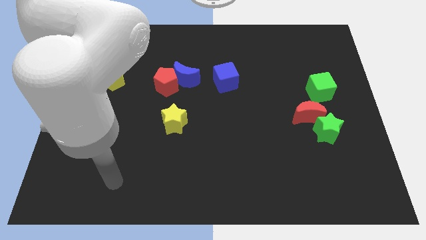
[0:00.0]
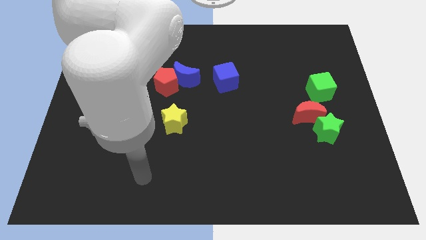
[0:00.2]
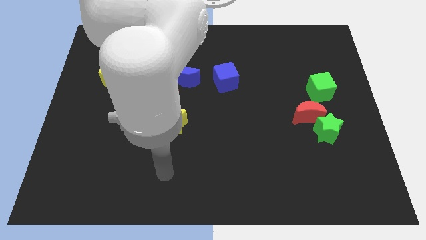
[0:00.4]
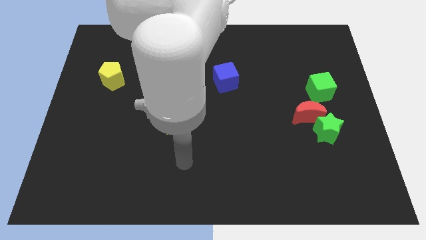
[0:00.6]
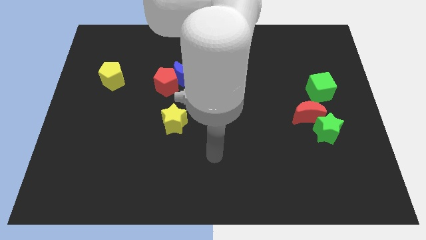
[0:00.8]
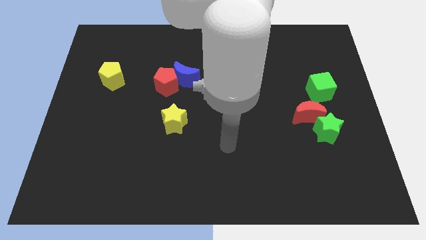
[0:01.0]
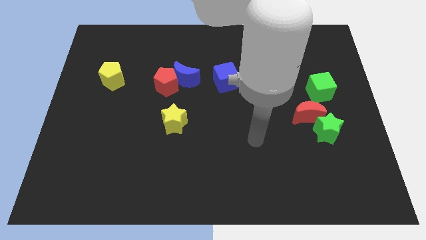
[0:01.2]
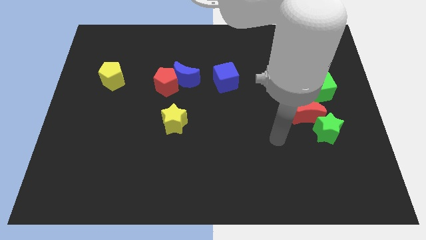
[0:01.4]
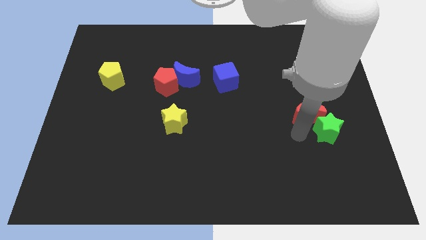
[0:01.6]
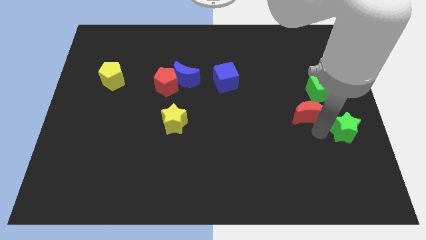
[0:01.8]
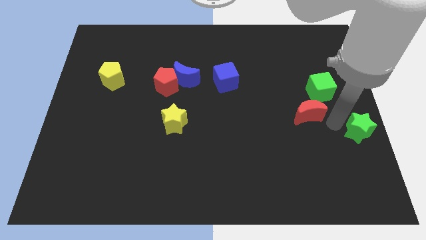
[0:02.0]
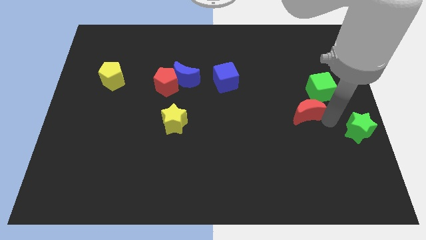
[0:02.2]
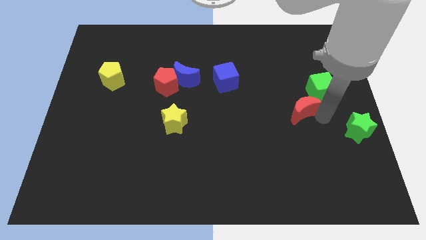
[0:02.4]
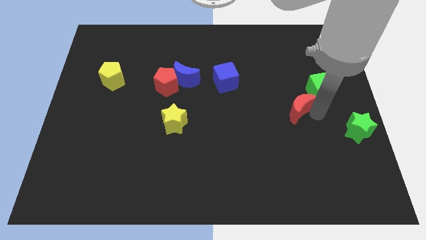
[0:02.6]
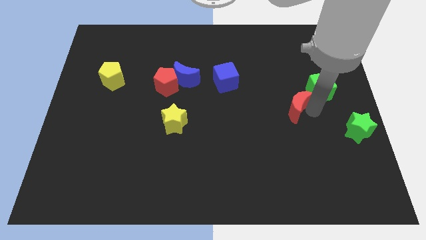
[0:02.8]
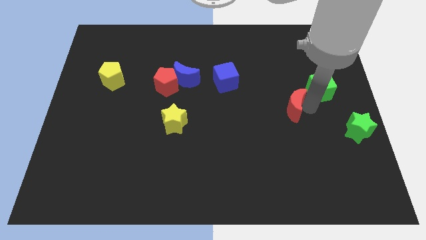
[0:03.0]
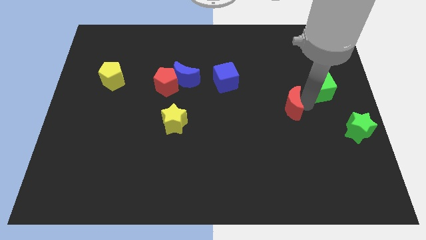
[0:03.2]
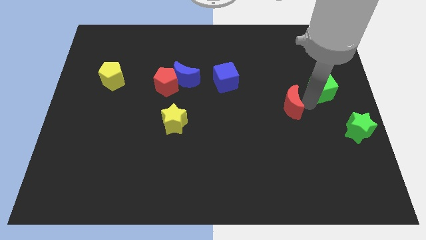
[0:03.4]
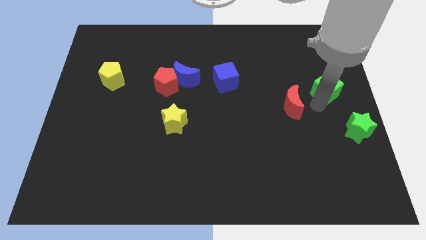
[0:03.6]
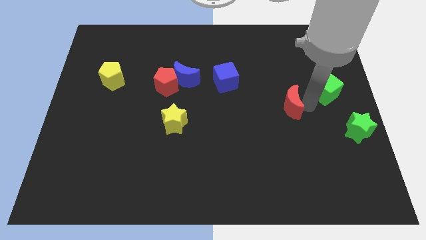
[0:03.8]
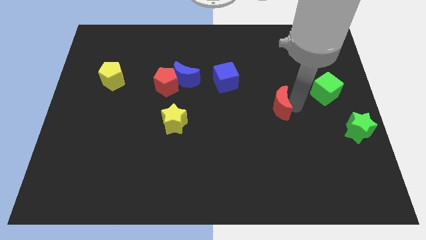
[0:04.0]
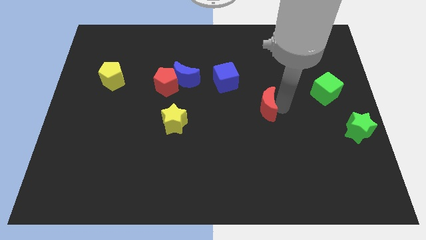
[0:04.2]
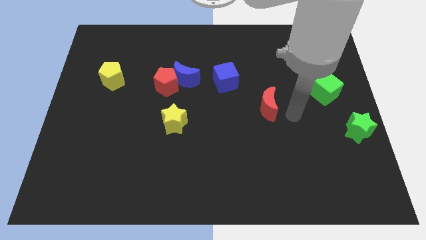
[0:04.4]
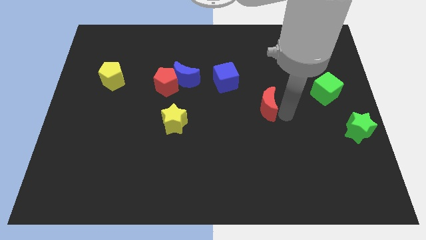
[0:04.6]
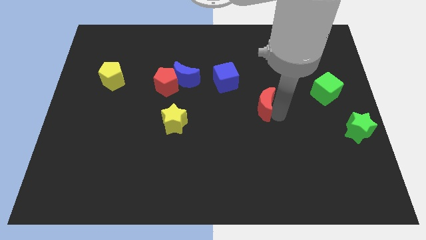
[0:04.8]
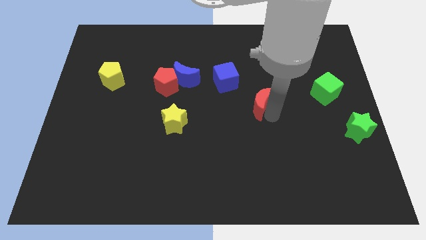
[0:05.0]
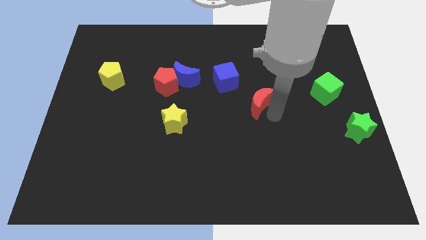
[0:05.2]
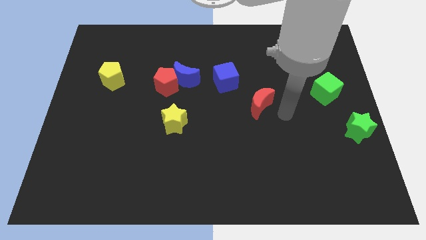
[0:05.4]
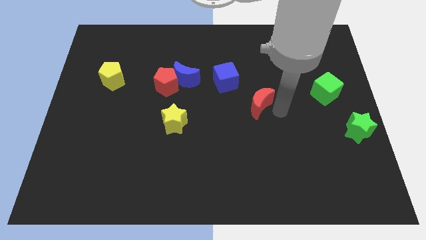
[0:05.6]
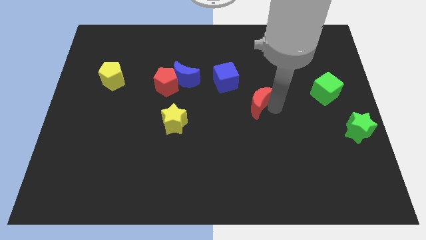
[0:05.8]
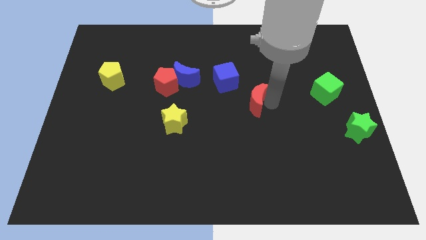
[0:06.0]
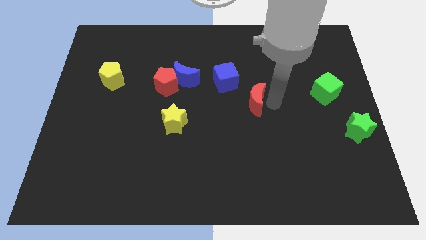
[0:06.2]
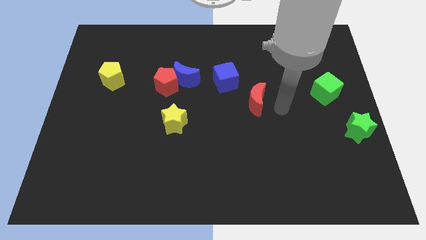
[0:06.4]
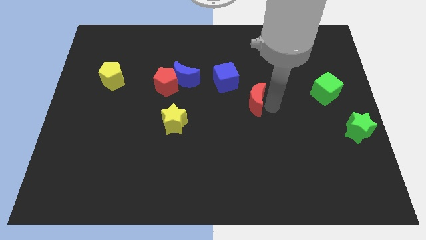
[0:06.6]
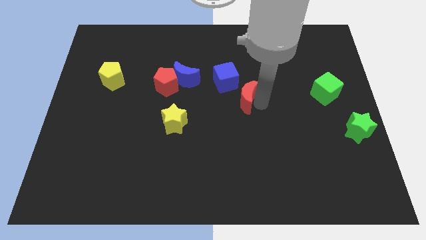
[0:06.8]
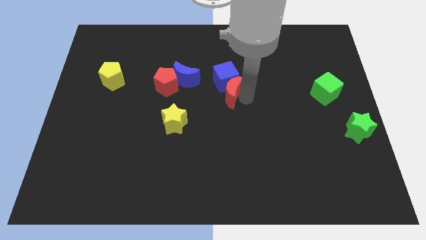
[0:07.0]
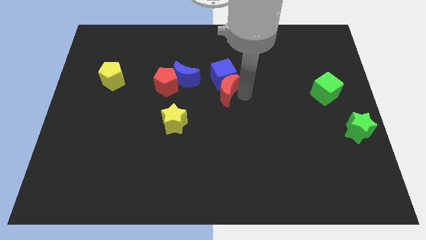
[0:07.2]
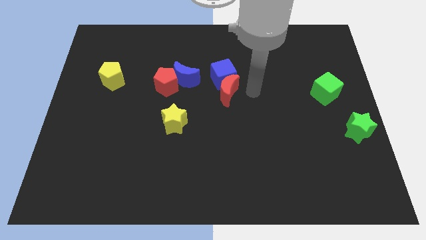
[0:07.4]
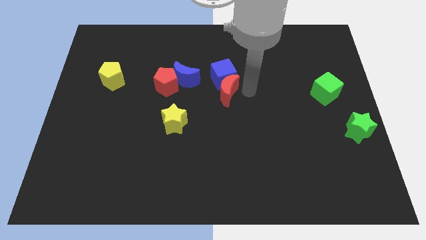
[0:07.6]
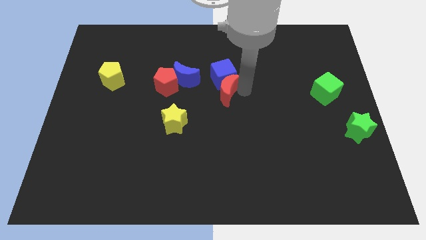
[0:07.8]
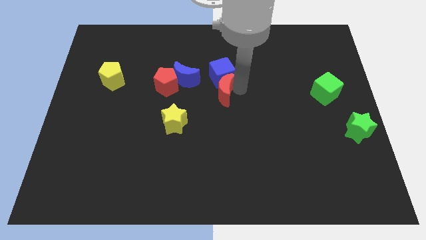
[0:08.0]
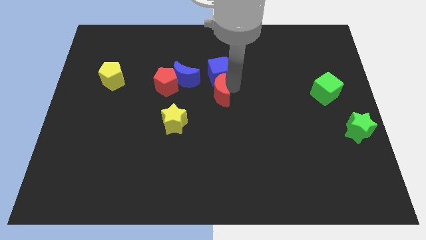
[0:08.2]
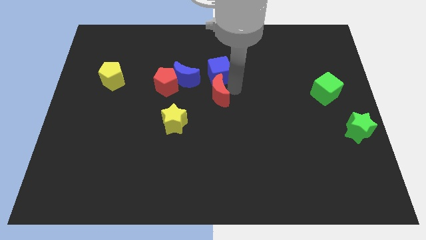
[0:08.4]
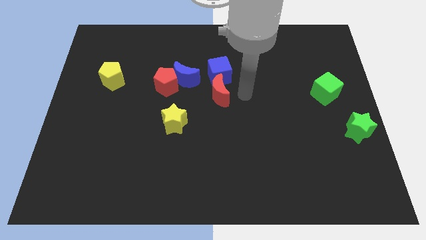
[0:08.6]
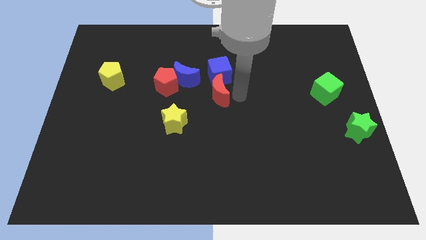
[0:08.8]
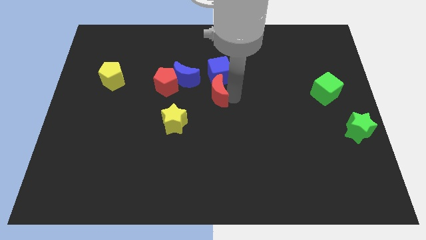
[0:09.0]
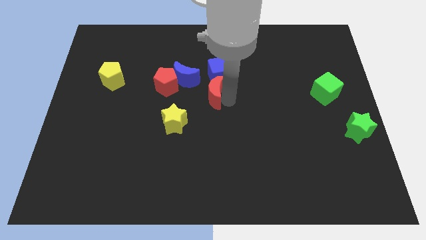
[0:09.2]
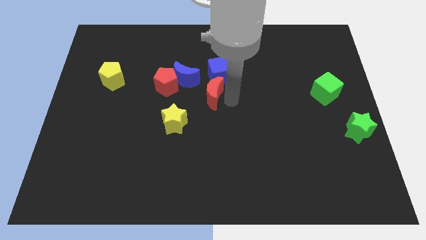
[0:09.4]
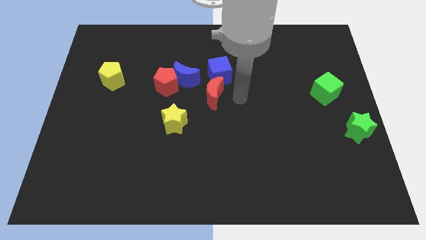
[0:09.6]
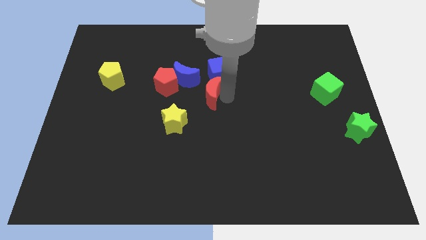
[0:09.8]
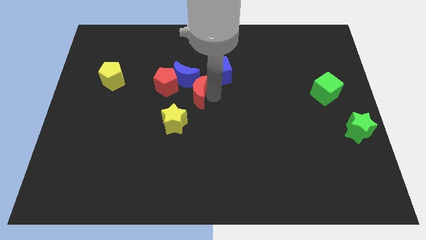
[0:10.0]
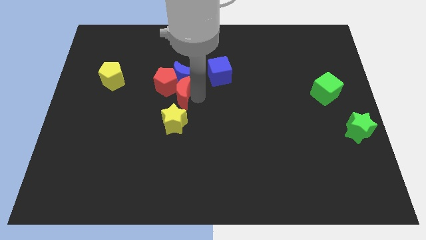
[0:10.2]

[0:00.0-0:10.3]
put the red moon towards the red pentagon
